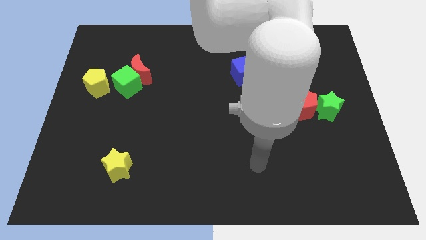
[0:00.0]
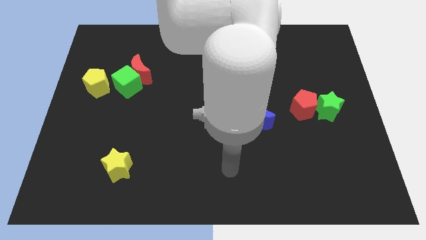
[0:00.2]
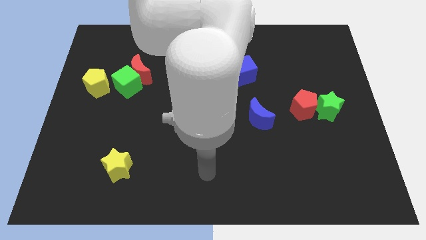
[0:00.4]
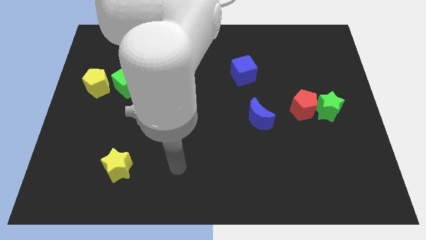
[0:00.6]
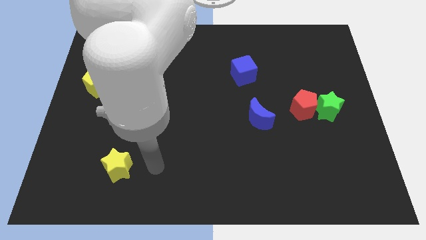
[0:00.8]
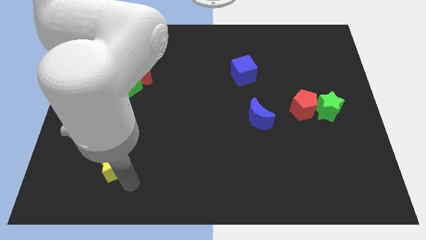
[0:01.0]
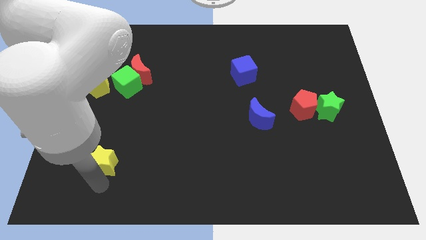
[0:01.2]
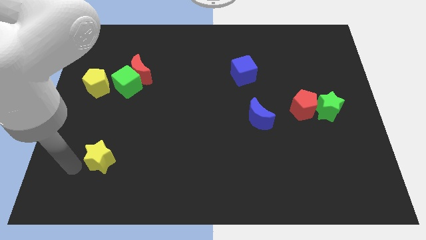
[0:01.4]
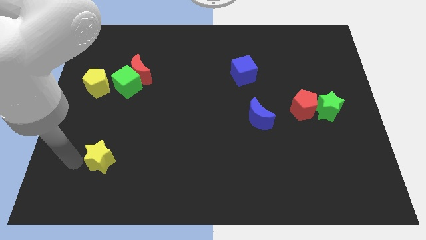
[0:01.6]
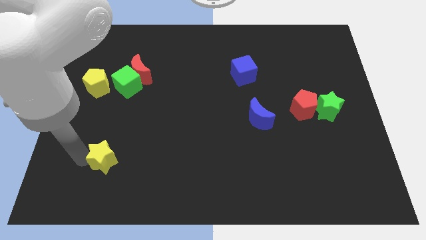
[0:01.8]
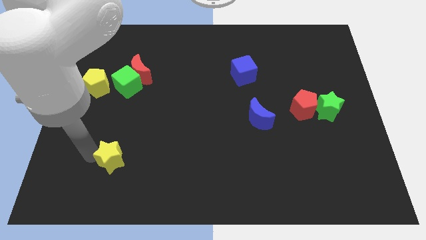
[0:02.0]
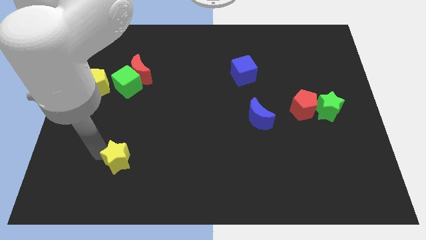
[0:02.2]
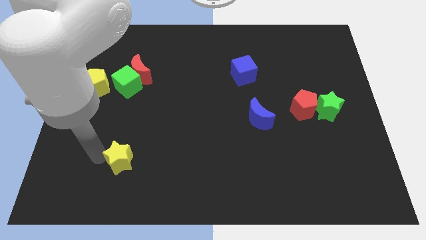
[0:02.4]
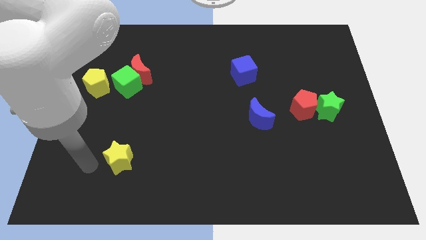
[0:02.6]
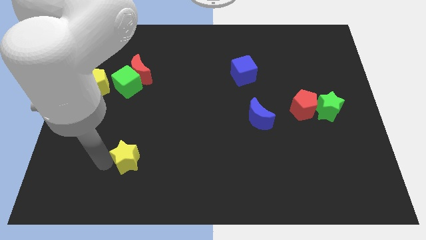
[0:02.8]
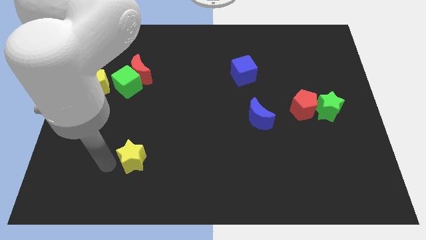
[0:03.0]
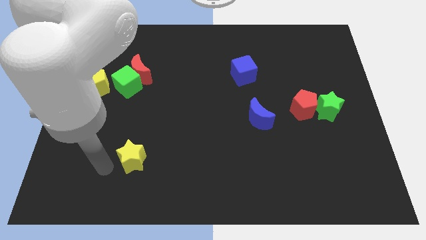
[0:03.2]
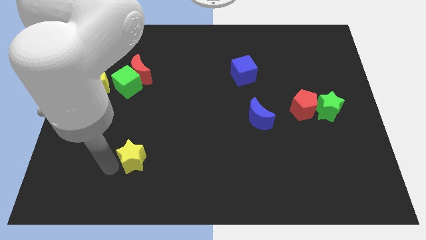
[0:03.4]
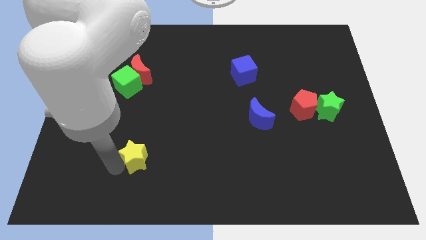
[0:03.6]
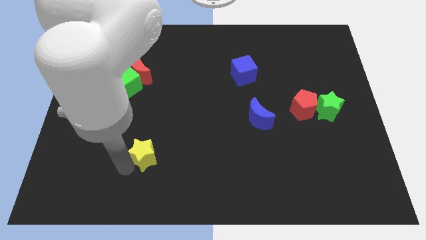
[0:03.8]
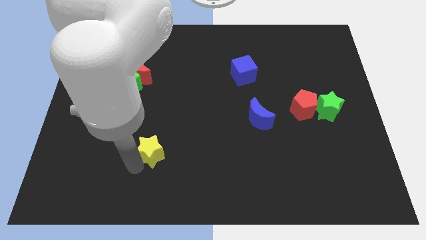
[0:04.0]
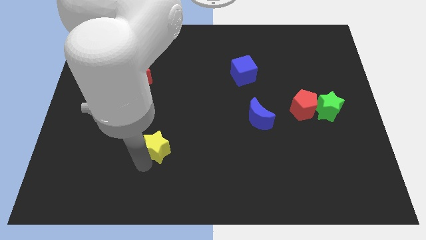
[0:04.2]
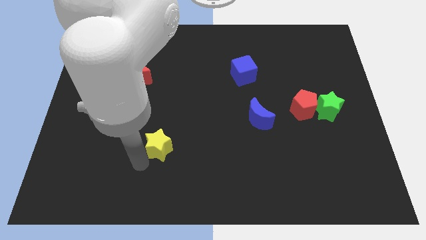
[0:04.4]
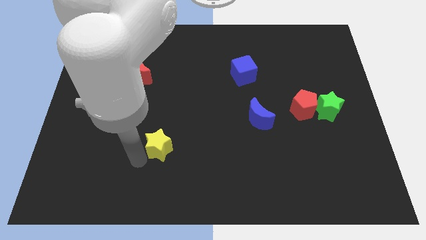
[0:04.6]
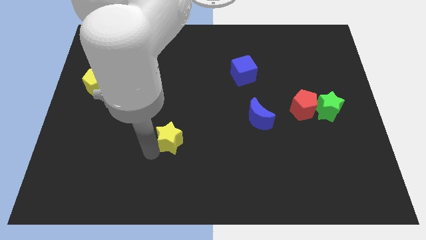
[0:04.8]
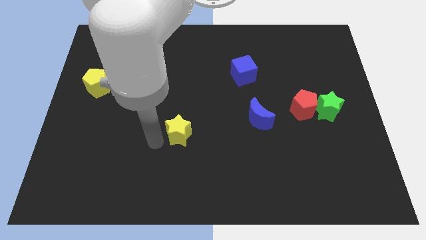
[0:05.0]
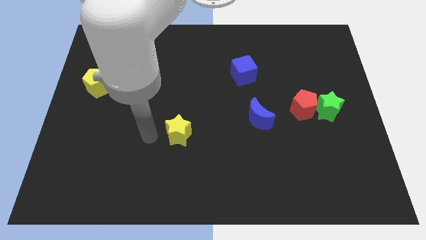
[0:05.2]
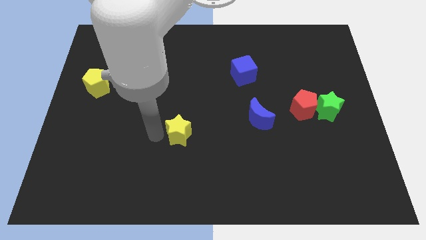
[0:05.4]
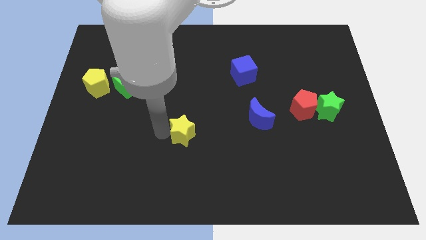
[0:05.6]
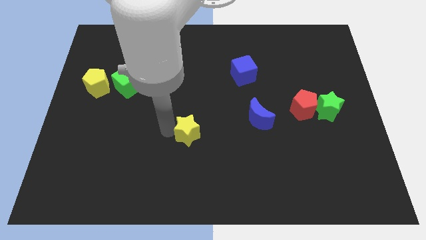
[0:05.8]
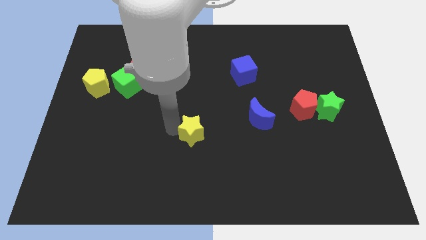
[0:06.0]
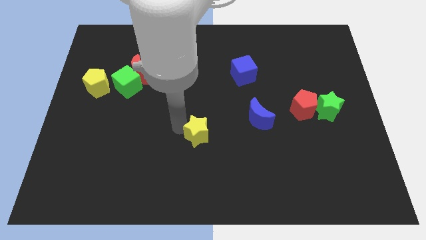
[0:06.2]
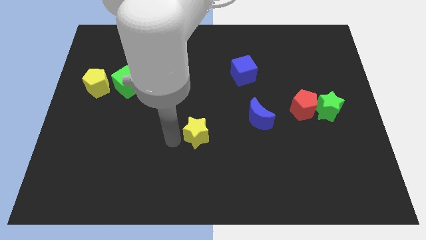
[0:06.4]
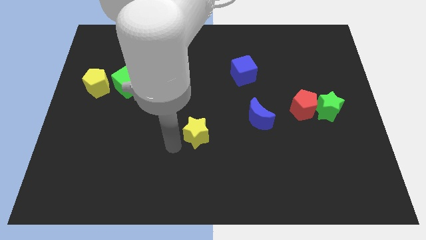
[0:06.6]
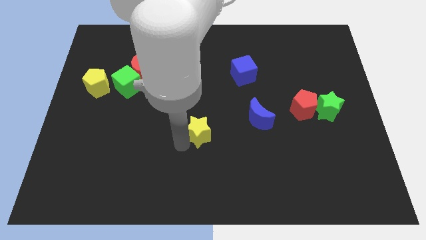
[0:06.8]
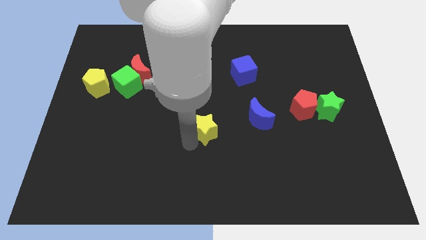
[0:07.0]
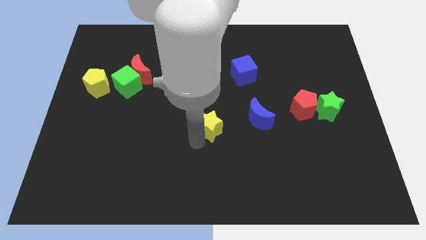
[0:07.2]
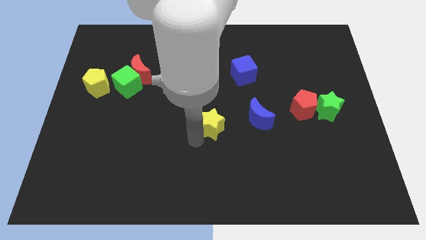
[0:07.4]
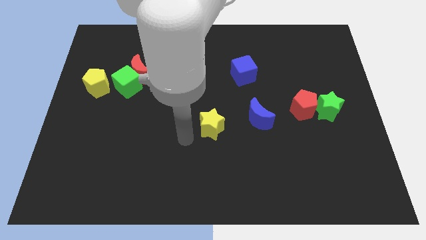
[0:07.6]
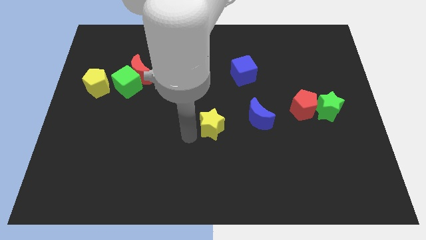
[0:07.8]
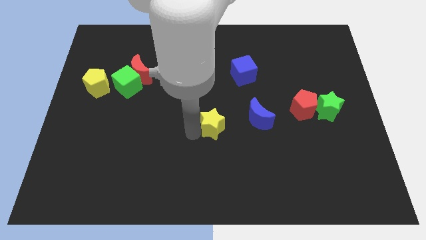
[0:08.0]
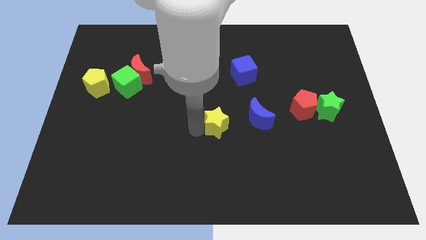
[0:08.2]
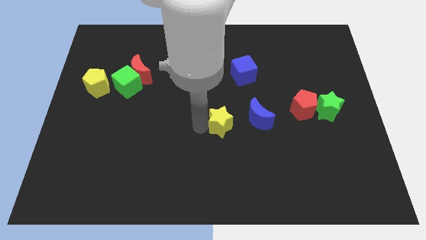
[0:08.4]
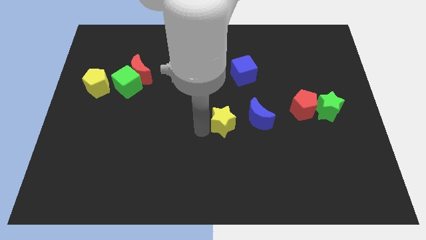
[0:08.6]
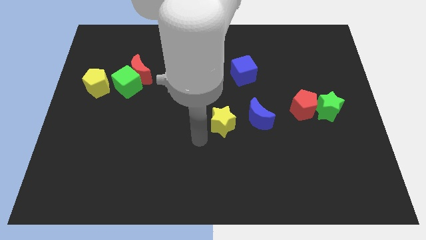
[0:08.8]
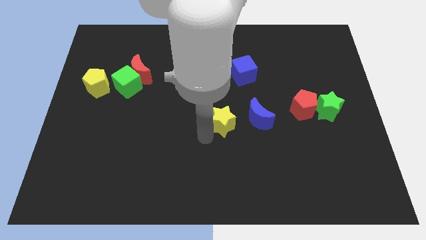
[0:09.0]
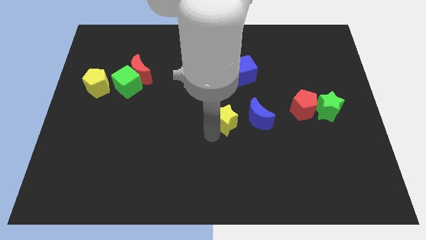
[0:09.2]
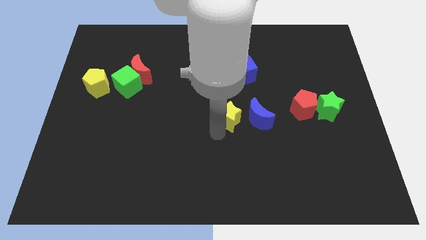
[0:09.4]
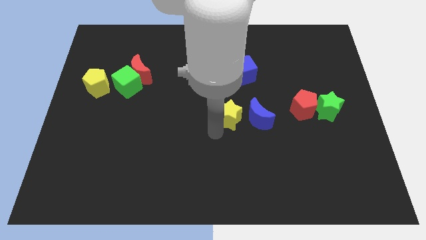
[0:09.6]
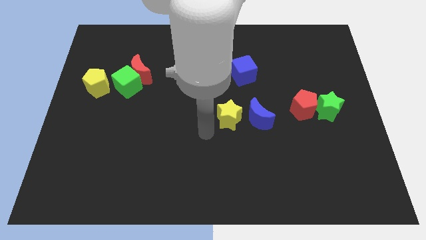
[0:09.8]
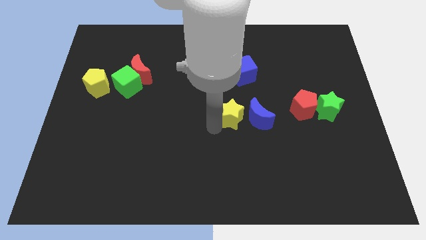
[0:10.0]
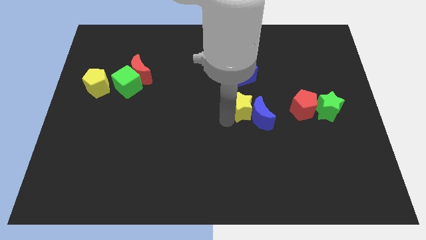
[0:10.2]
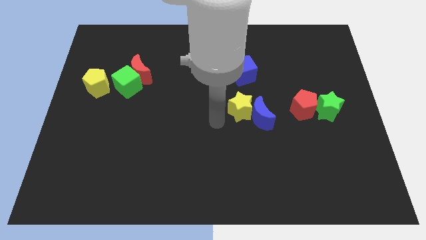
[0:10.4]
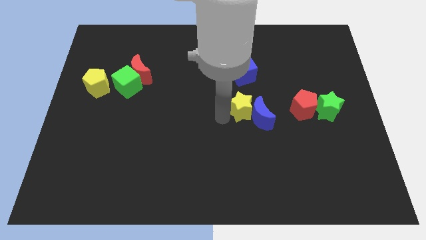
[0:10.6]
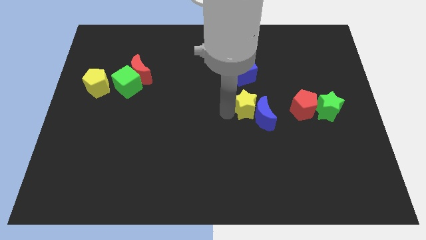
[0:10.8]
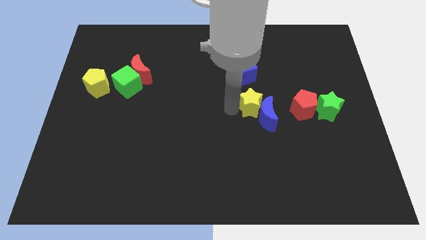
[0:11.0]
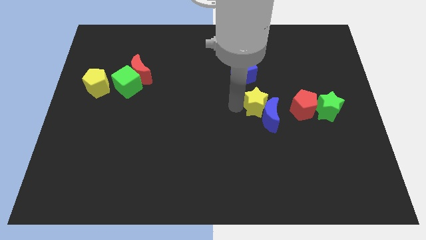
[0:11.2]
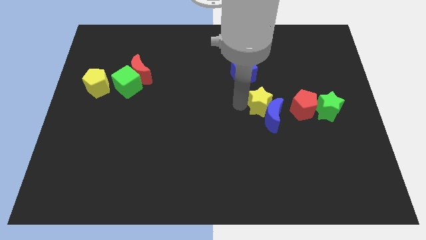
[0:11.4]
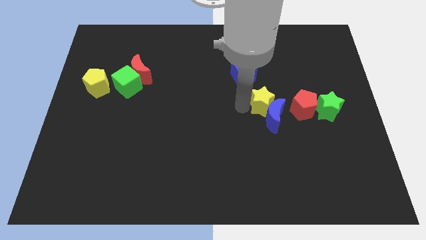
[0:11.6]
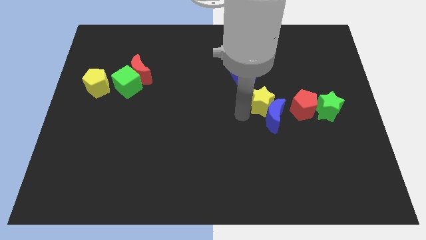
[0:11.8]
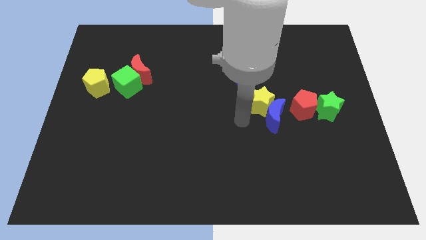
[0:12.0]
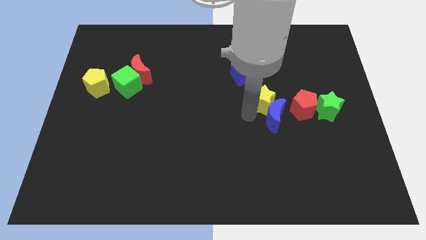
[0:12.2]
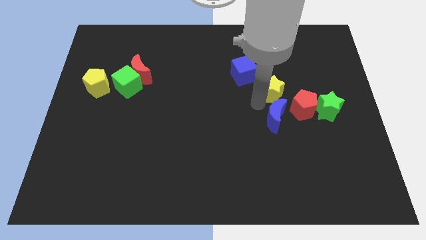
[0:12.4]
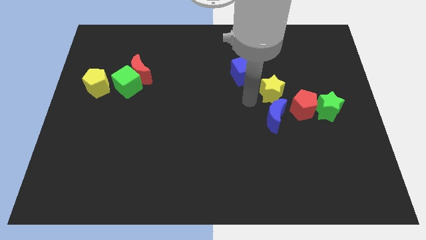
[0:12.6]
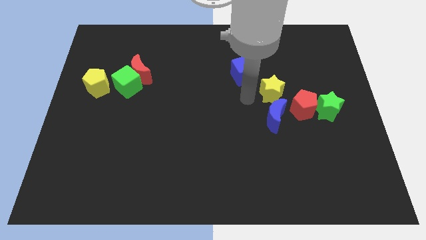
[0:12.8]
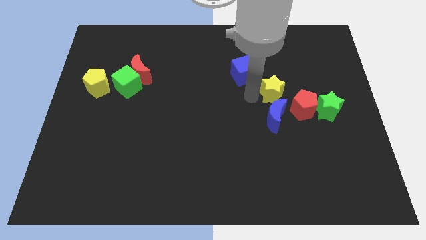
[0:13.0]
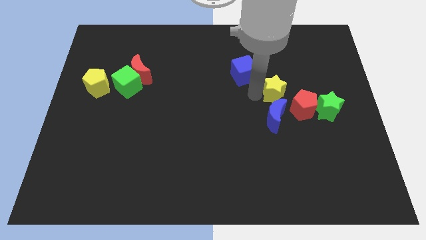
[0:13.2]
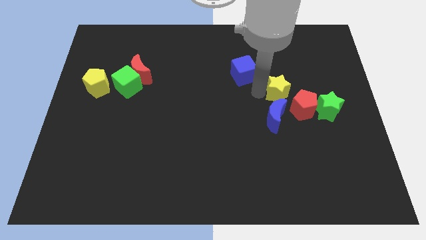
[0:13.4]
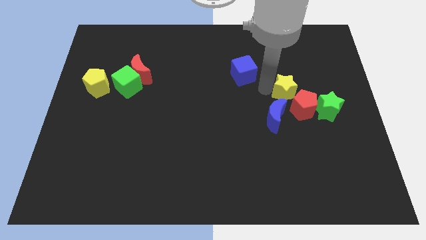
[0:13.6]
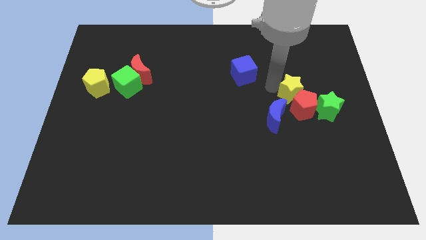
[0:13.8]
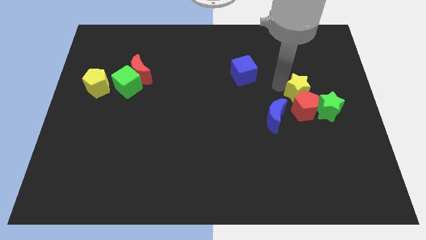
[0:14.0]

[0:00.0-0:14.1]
move the yellow star to the top right side of the red pentagon
